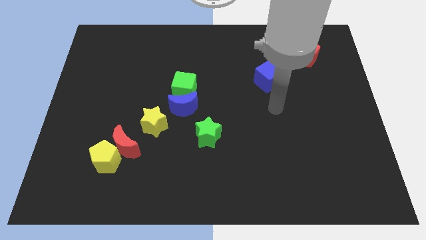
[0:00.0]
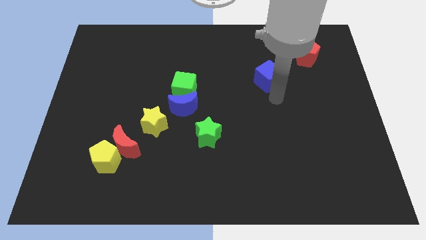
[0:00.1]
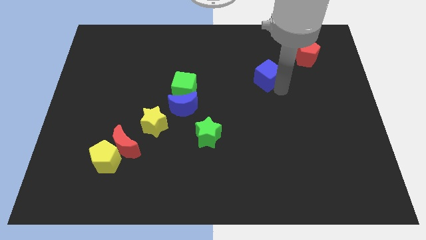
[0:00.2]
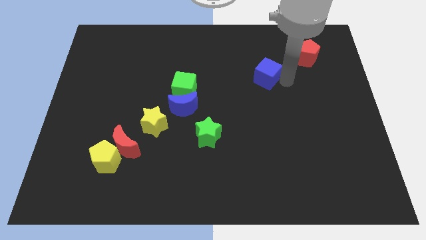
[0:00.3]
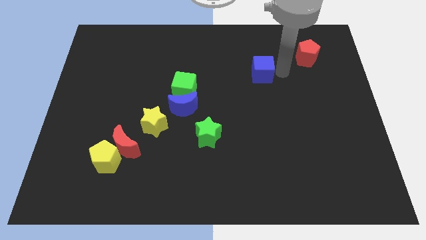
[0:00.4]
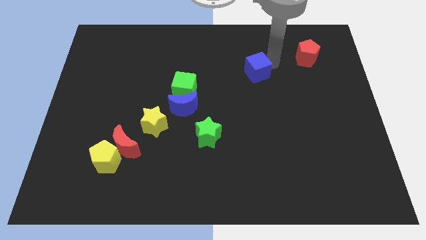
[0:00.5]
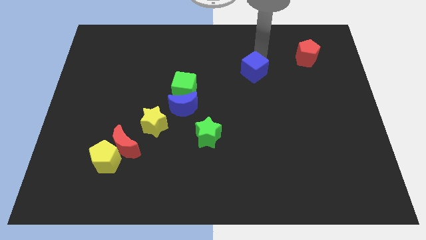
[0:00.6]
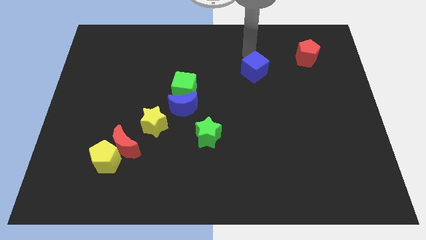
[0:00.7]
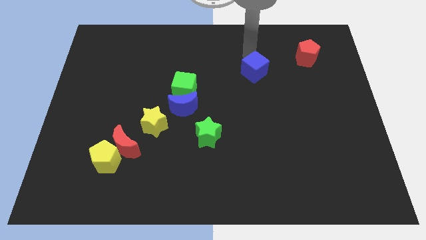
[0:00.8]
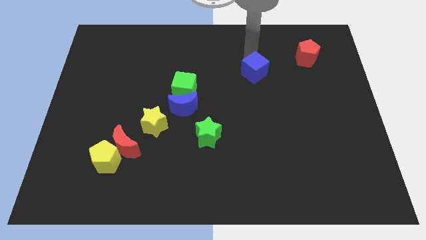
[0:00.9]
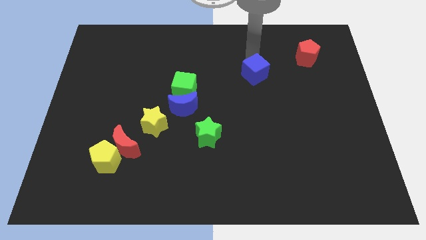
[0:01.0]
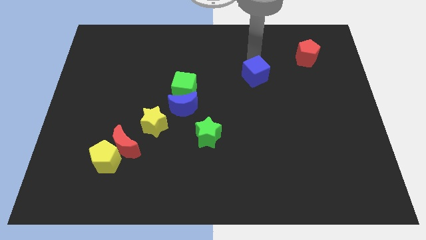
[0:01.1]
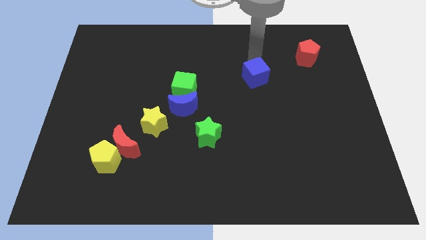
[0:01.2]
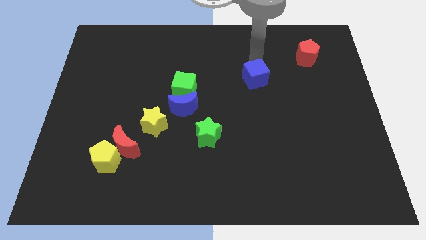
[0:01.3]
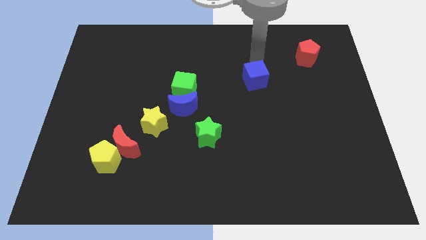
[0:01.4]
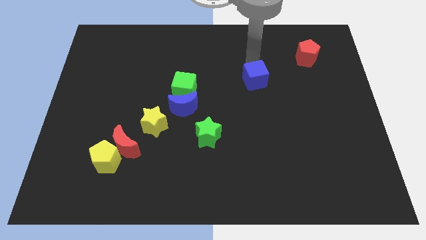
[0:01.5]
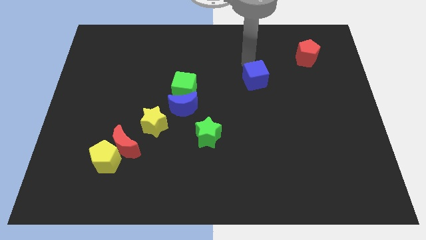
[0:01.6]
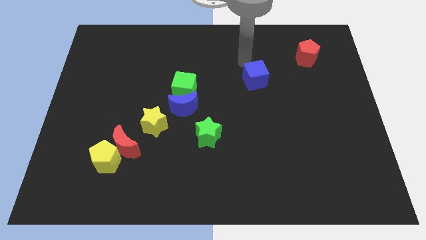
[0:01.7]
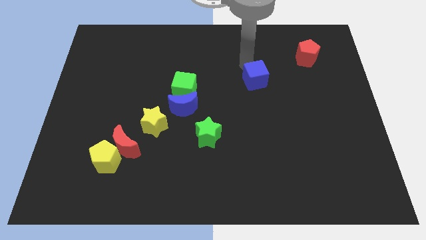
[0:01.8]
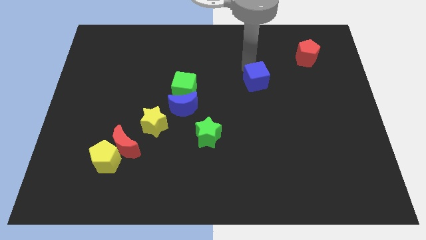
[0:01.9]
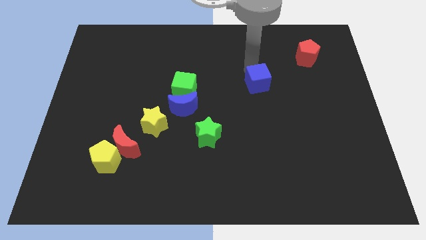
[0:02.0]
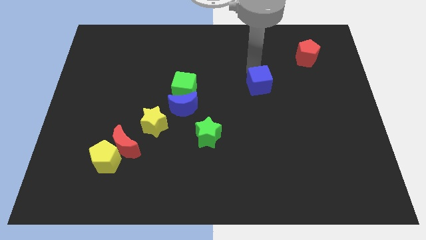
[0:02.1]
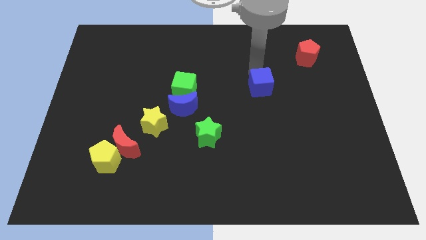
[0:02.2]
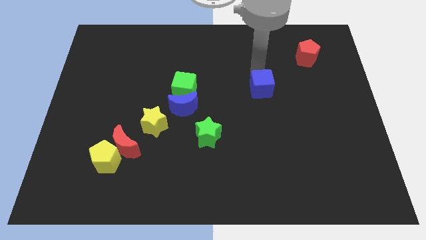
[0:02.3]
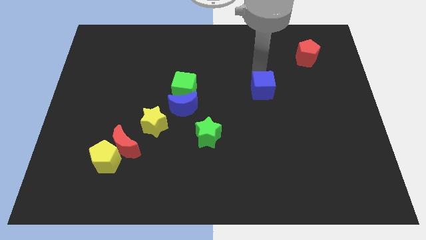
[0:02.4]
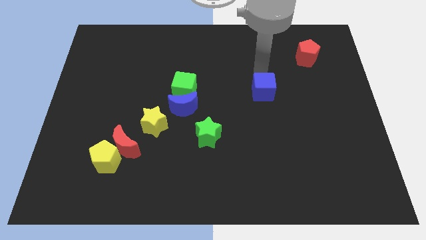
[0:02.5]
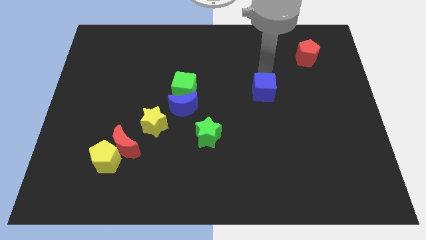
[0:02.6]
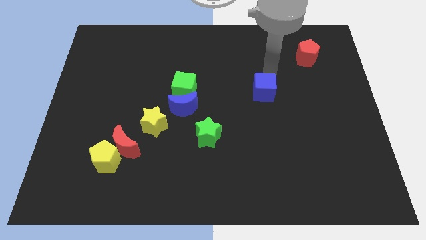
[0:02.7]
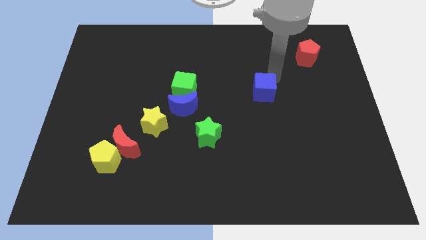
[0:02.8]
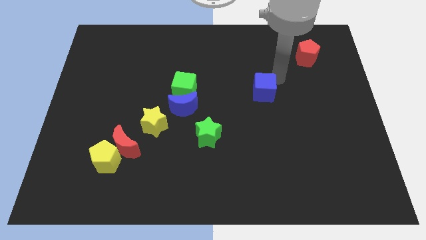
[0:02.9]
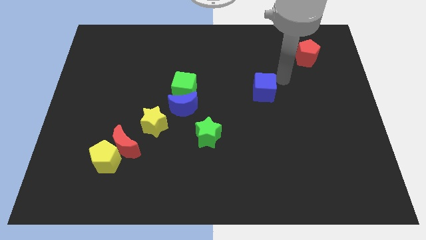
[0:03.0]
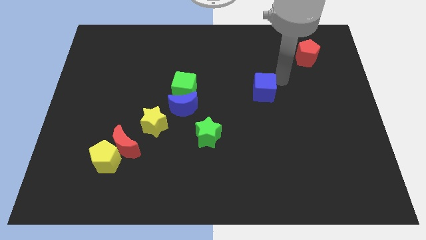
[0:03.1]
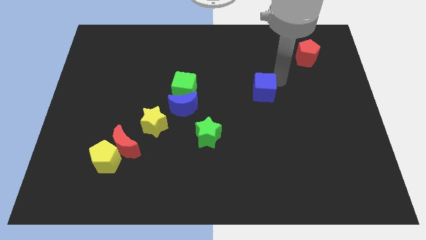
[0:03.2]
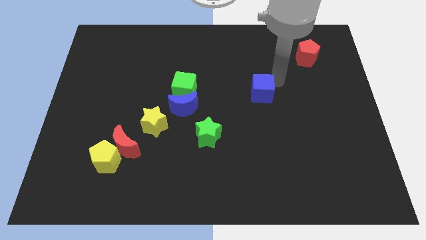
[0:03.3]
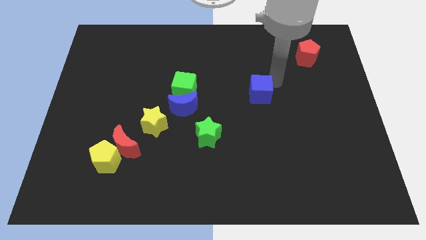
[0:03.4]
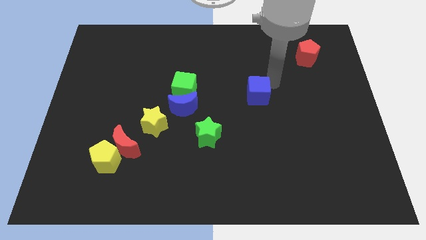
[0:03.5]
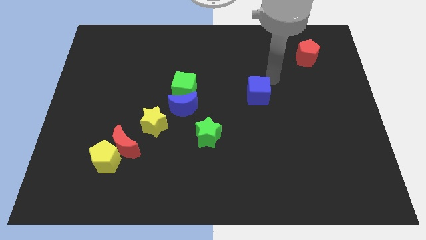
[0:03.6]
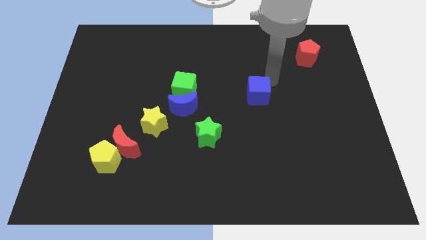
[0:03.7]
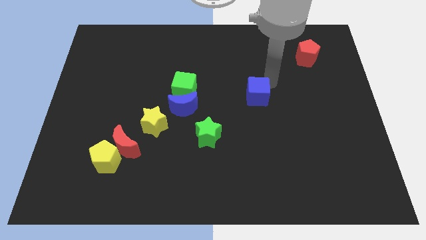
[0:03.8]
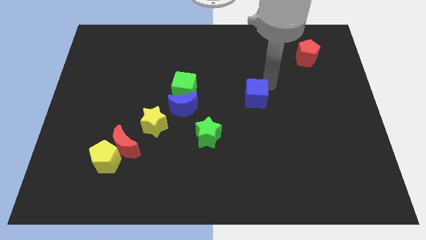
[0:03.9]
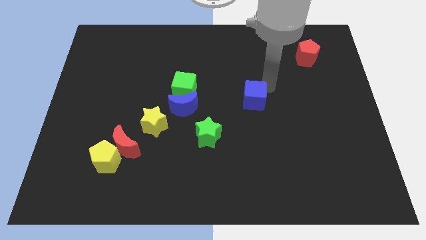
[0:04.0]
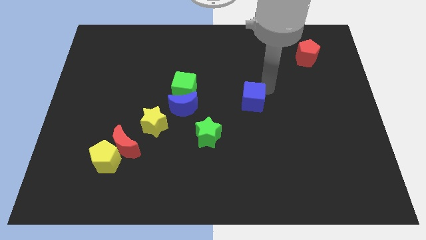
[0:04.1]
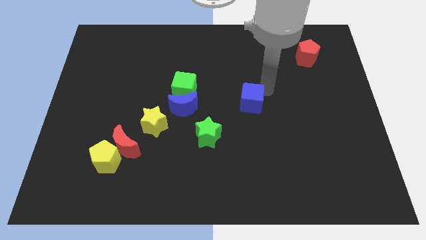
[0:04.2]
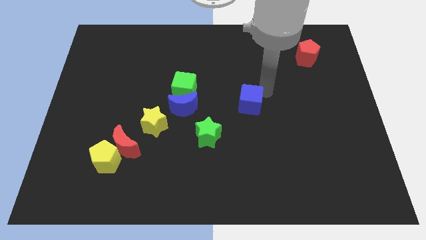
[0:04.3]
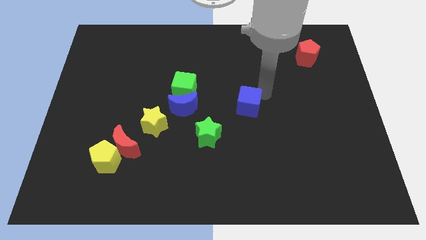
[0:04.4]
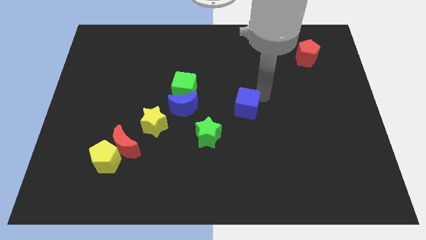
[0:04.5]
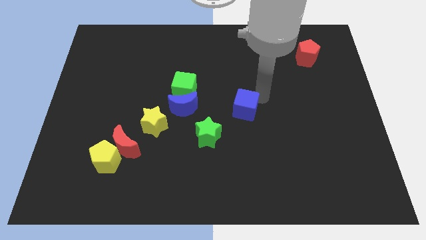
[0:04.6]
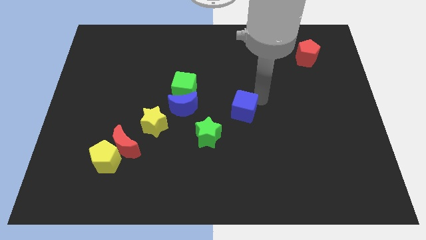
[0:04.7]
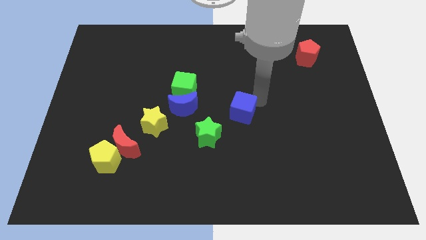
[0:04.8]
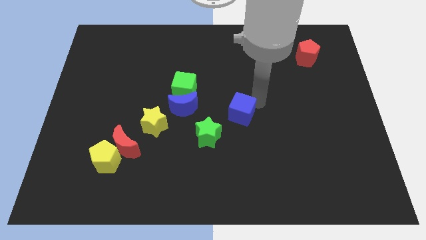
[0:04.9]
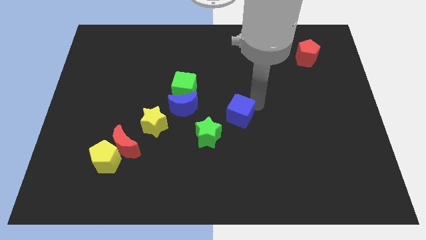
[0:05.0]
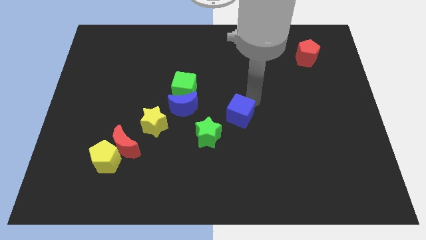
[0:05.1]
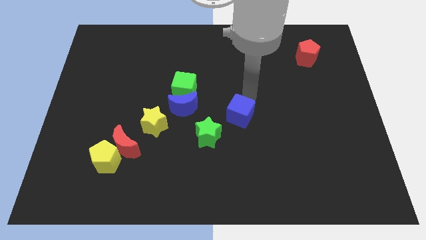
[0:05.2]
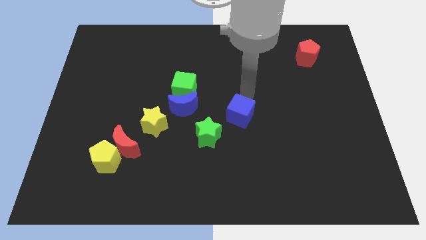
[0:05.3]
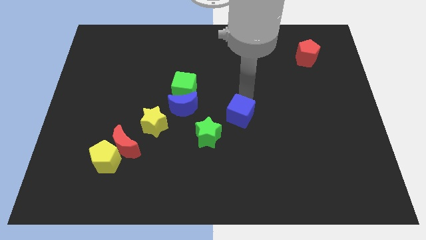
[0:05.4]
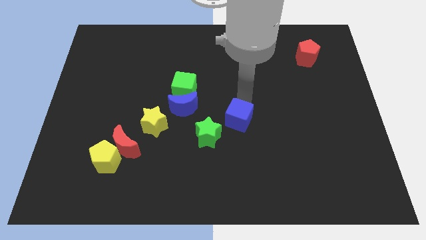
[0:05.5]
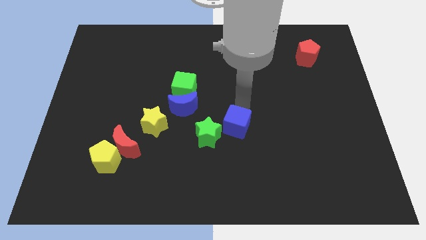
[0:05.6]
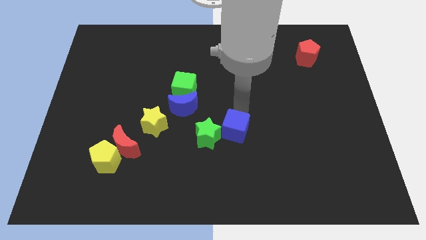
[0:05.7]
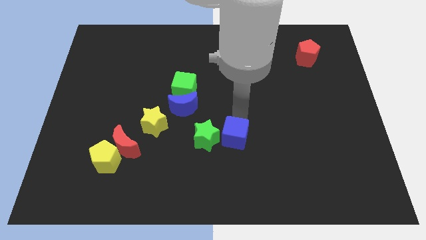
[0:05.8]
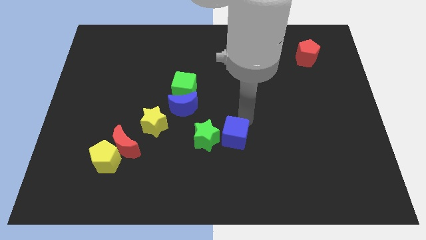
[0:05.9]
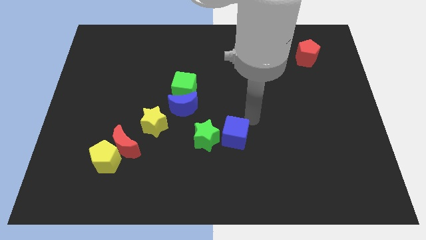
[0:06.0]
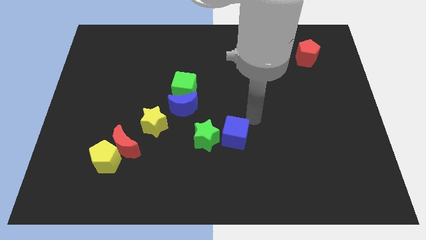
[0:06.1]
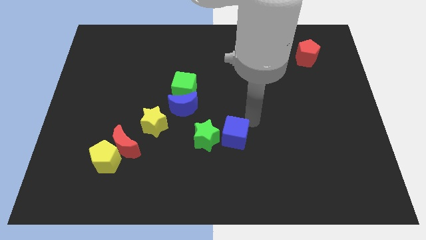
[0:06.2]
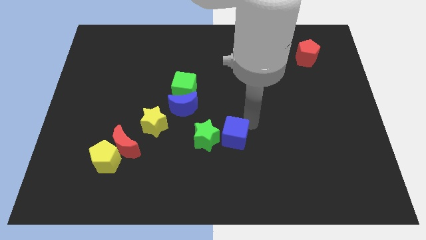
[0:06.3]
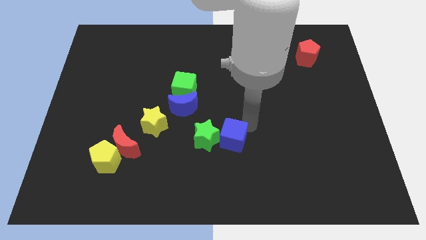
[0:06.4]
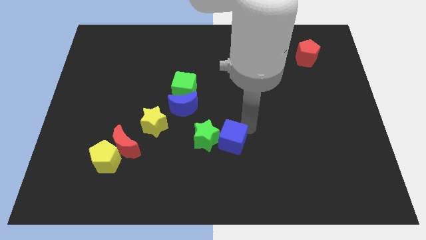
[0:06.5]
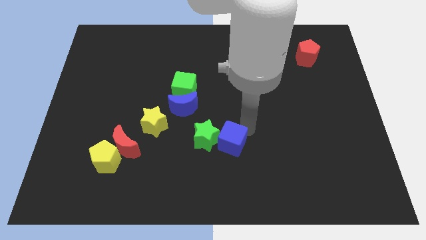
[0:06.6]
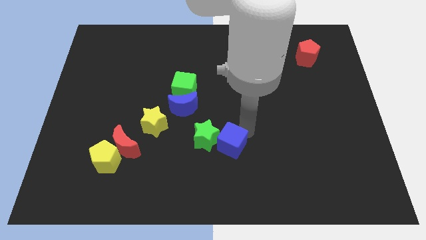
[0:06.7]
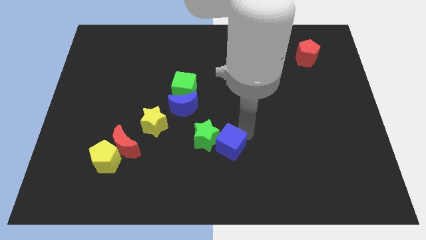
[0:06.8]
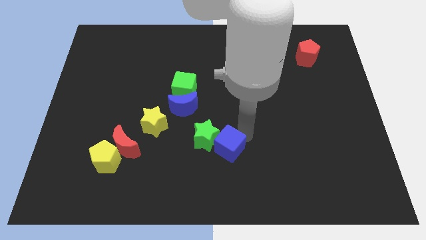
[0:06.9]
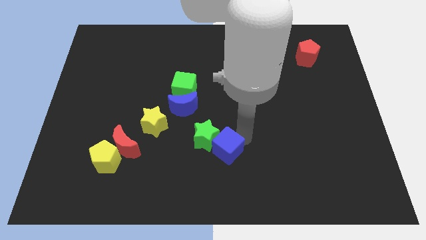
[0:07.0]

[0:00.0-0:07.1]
move the blue cube down and then left

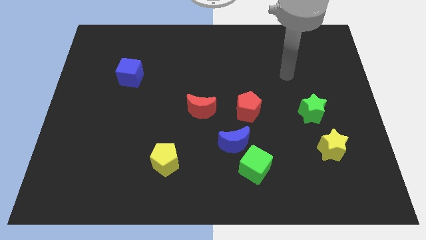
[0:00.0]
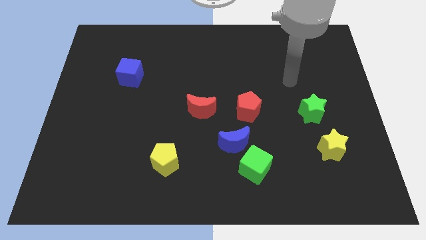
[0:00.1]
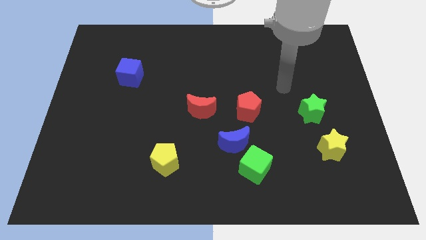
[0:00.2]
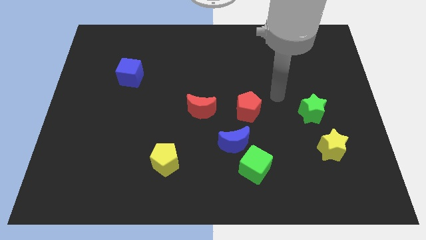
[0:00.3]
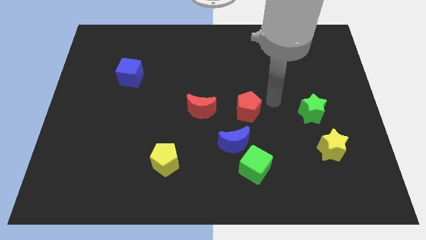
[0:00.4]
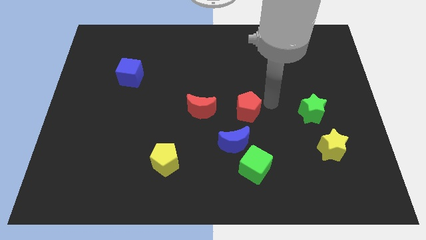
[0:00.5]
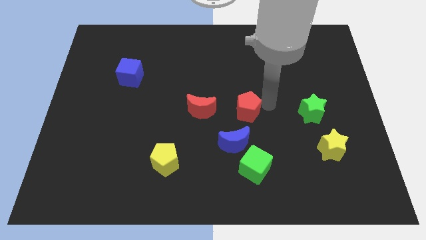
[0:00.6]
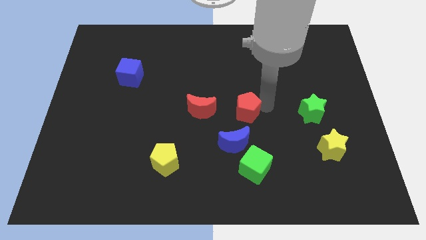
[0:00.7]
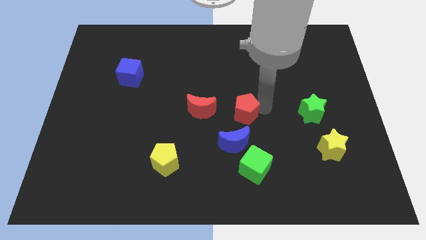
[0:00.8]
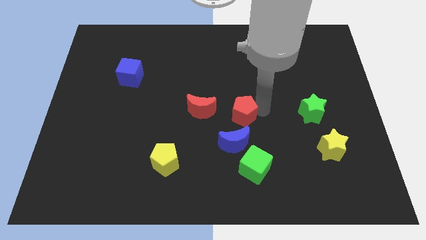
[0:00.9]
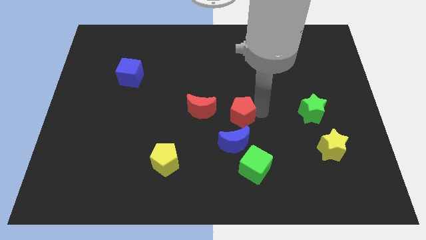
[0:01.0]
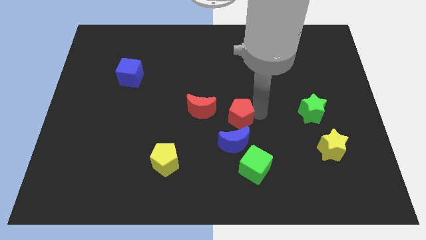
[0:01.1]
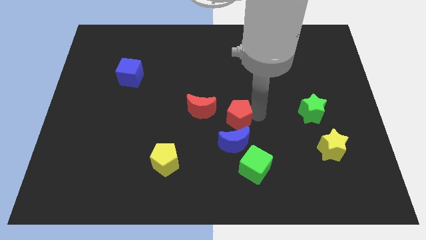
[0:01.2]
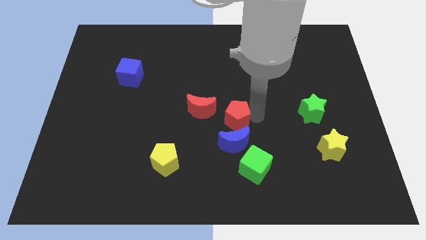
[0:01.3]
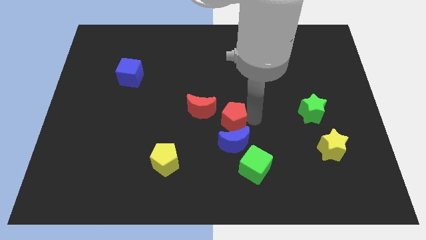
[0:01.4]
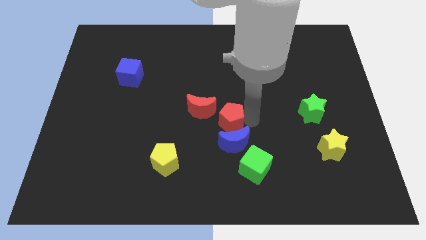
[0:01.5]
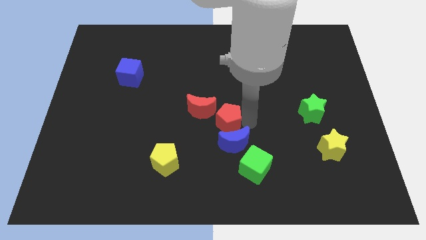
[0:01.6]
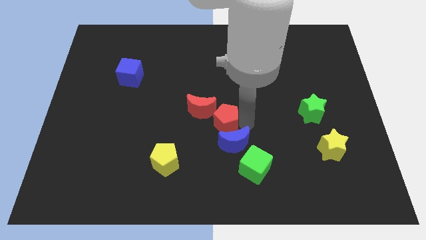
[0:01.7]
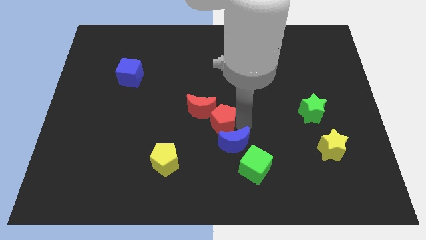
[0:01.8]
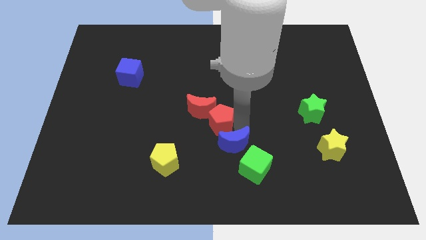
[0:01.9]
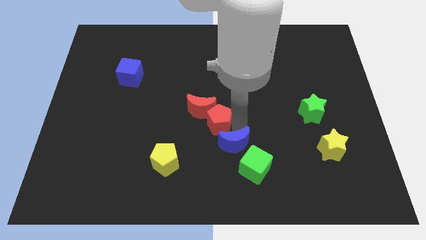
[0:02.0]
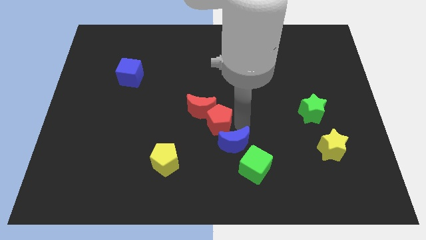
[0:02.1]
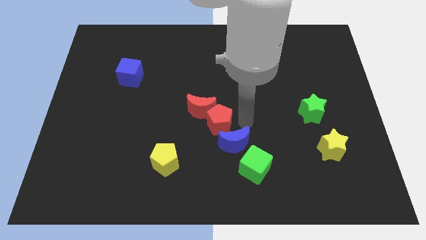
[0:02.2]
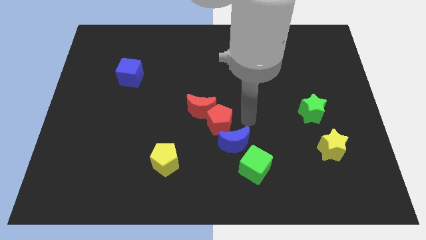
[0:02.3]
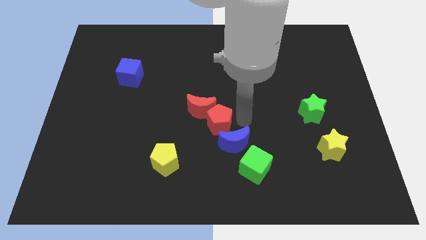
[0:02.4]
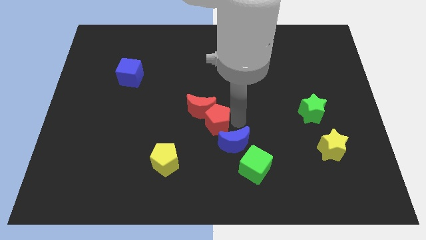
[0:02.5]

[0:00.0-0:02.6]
slightly push the red pentagon left
